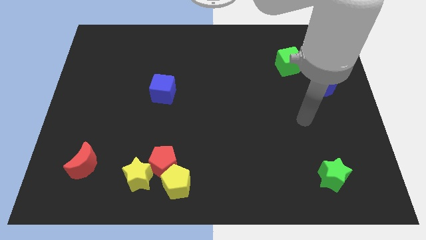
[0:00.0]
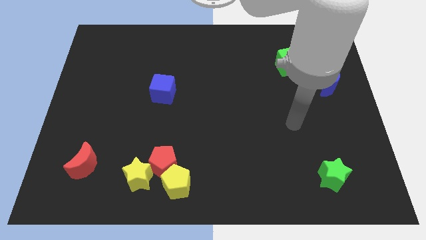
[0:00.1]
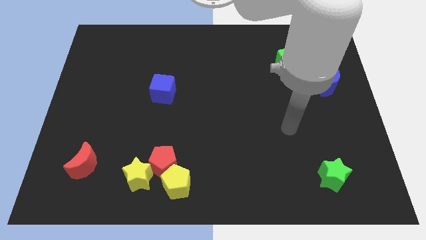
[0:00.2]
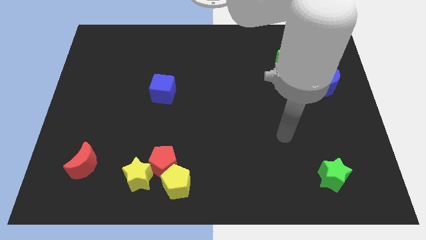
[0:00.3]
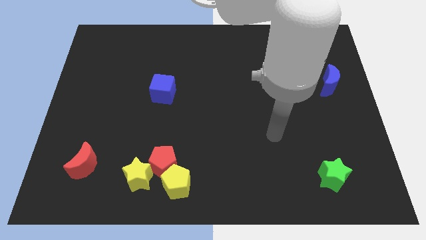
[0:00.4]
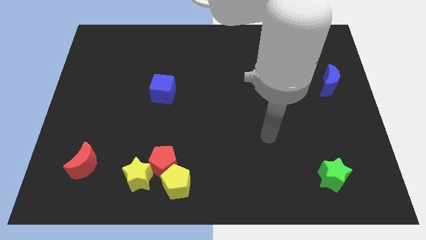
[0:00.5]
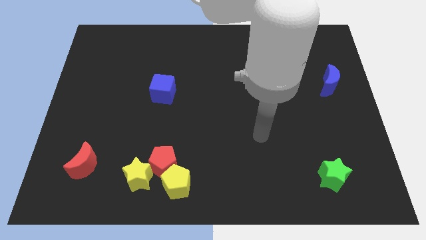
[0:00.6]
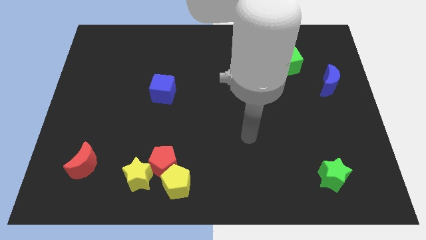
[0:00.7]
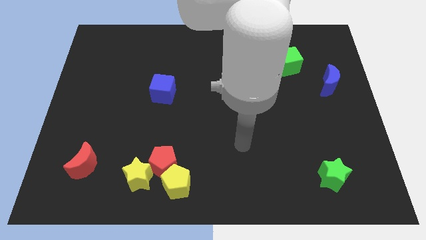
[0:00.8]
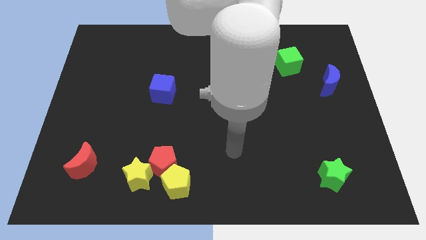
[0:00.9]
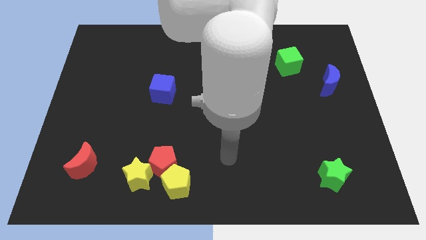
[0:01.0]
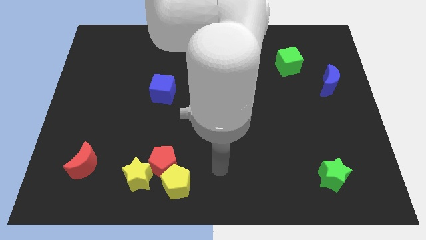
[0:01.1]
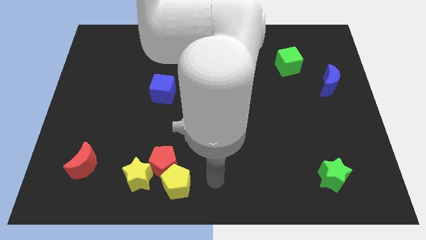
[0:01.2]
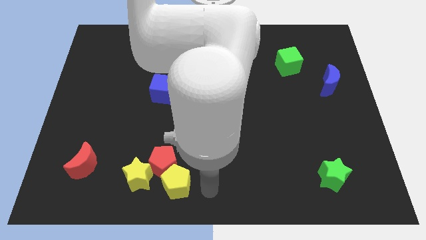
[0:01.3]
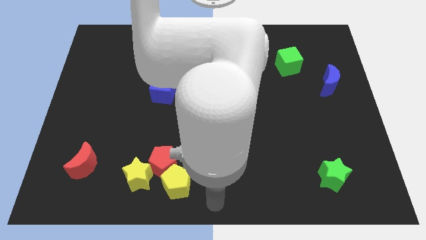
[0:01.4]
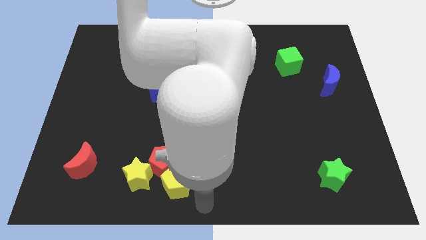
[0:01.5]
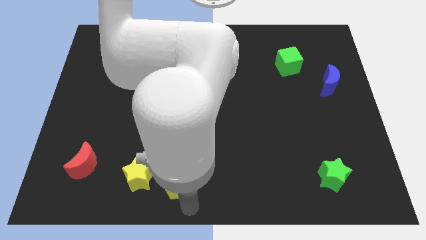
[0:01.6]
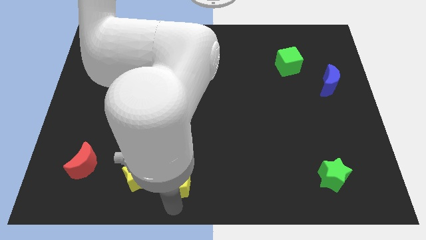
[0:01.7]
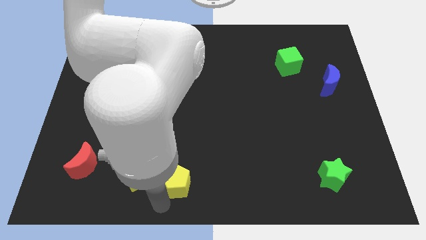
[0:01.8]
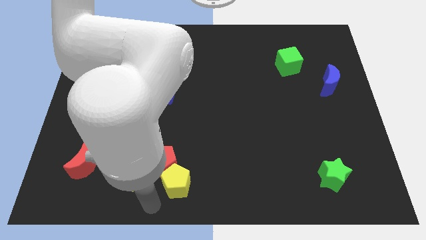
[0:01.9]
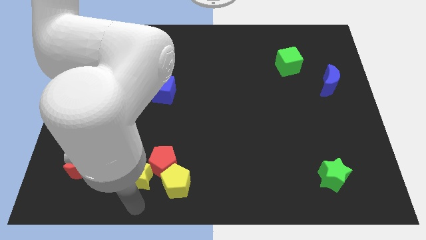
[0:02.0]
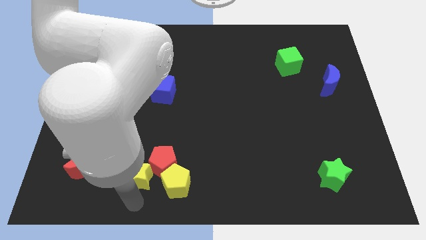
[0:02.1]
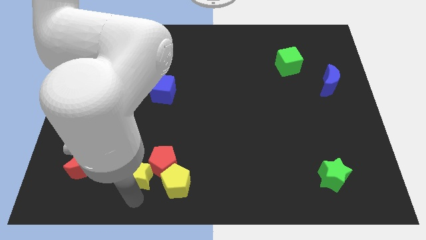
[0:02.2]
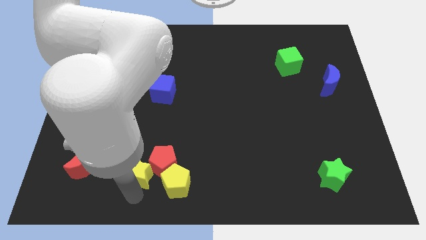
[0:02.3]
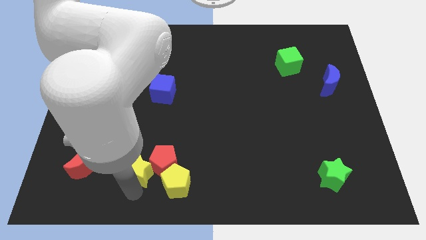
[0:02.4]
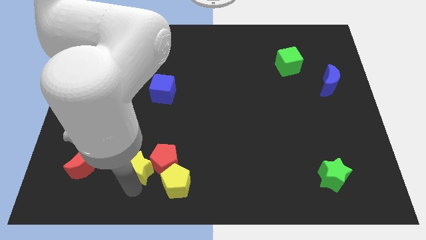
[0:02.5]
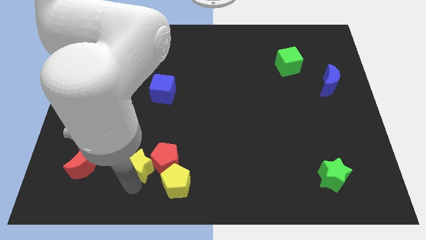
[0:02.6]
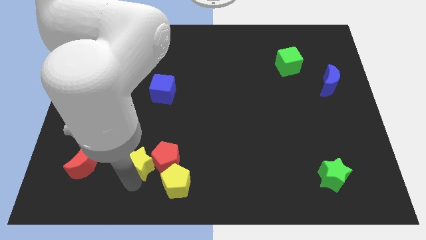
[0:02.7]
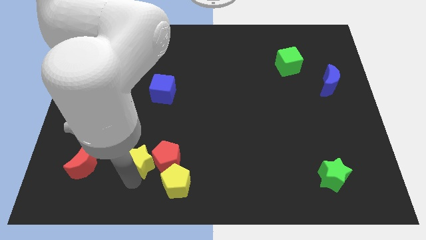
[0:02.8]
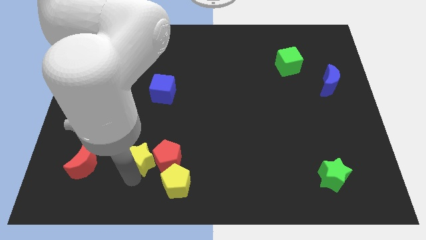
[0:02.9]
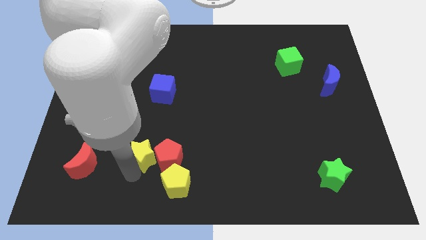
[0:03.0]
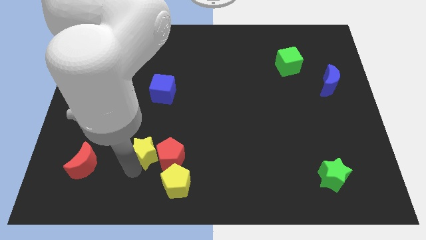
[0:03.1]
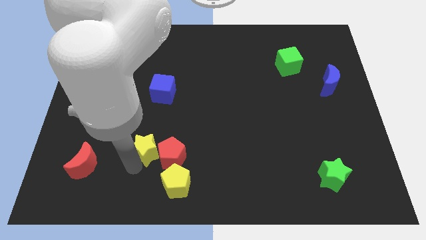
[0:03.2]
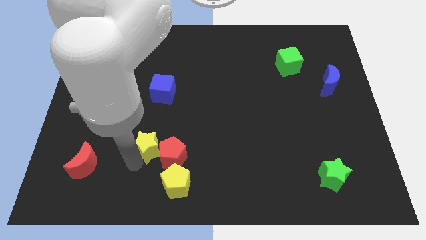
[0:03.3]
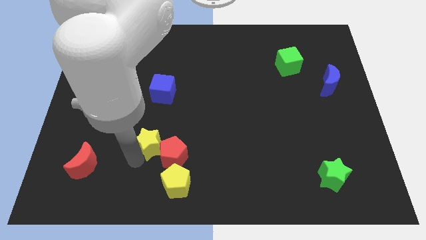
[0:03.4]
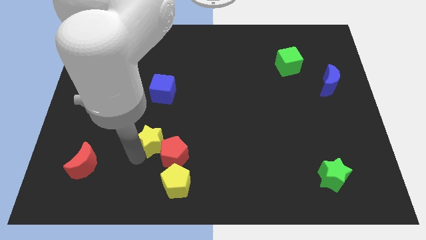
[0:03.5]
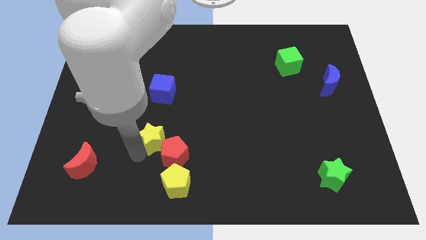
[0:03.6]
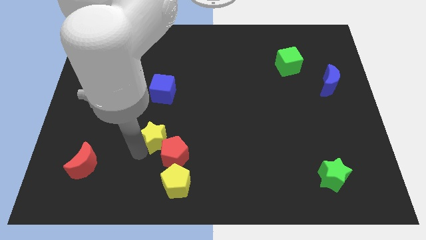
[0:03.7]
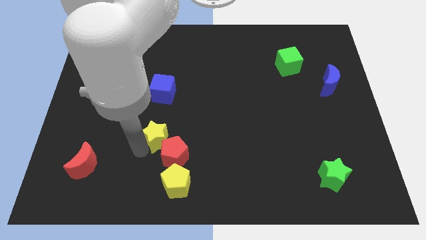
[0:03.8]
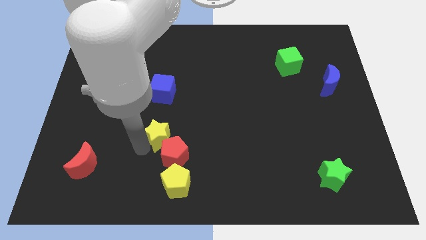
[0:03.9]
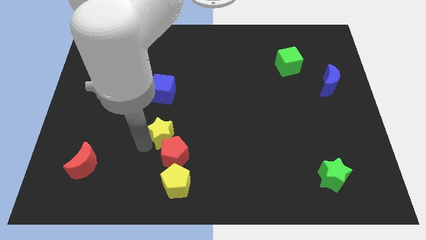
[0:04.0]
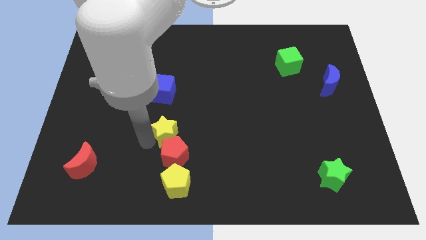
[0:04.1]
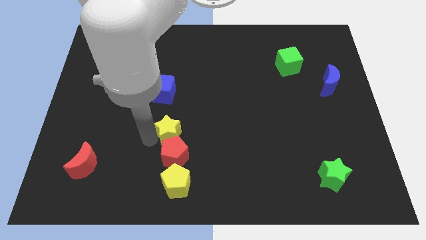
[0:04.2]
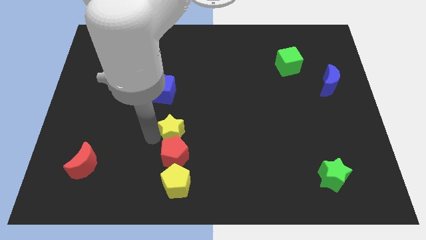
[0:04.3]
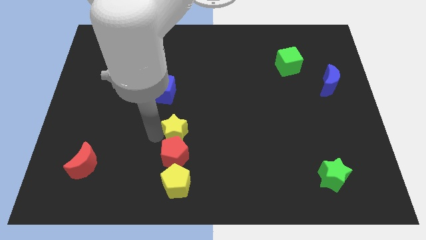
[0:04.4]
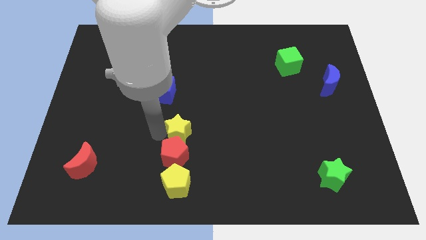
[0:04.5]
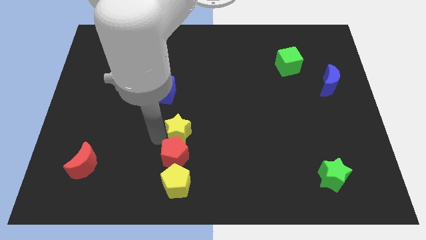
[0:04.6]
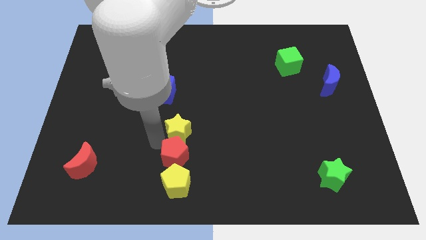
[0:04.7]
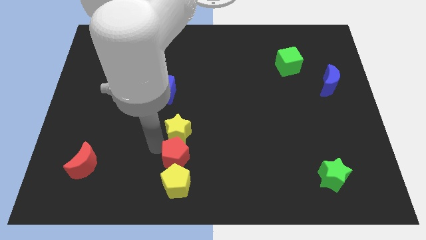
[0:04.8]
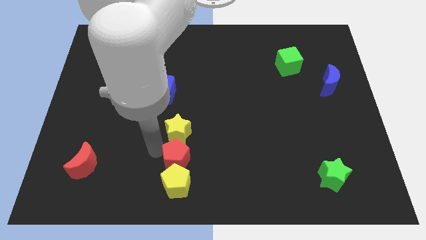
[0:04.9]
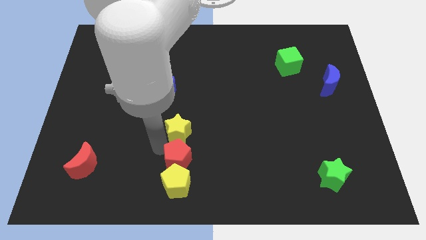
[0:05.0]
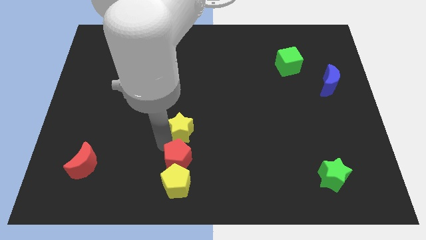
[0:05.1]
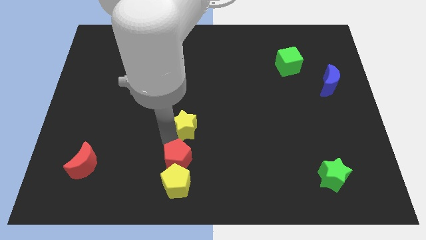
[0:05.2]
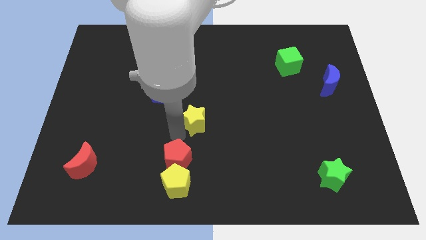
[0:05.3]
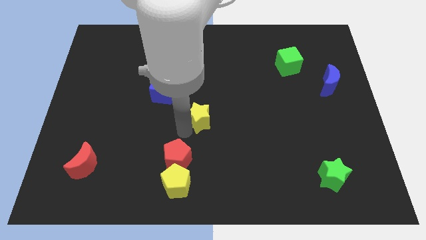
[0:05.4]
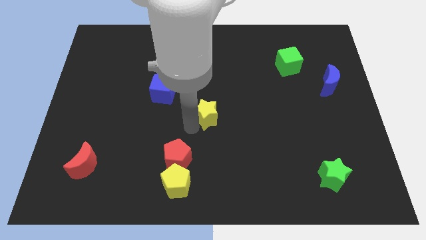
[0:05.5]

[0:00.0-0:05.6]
move the yellow star up and right

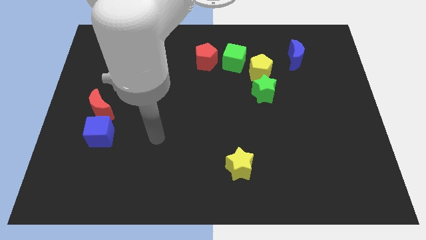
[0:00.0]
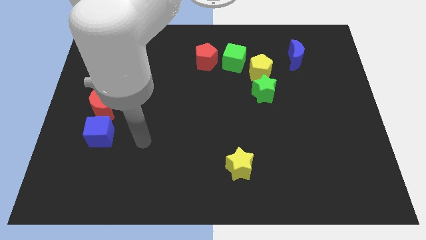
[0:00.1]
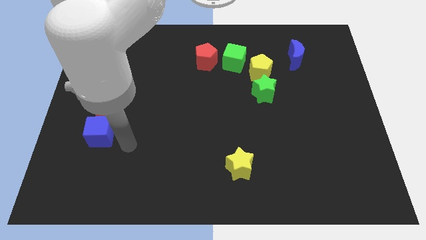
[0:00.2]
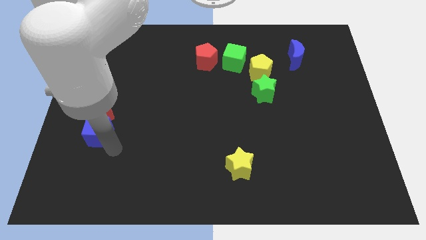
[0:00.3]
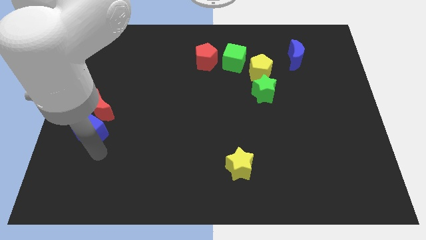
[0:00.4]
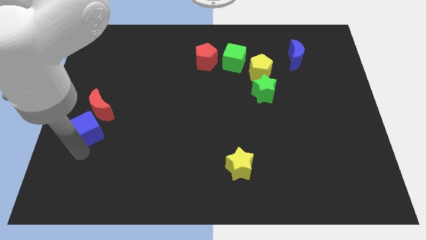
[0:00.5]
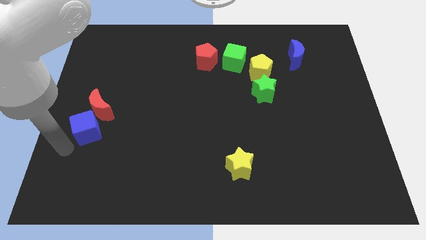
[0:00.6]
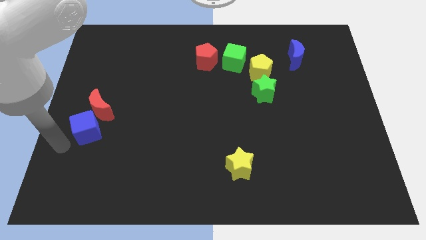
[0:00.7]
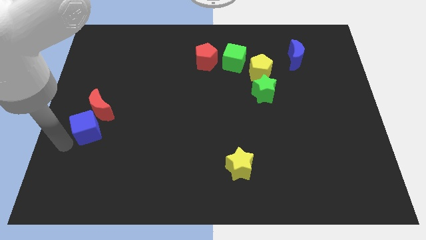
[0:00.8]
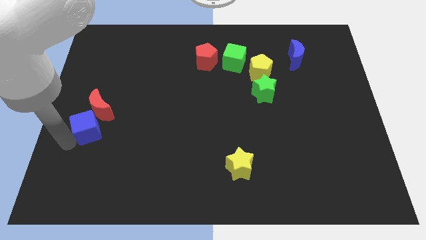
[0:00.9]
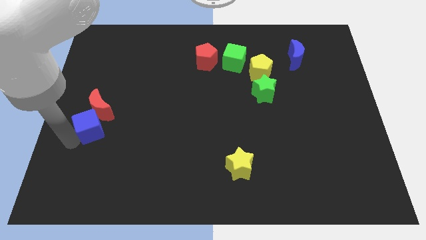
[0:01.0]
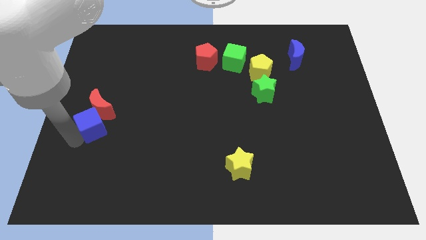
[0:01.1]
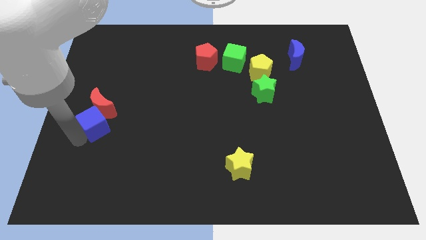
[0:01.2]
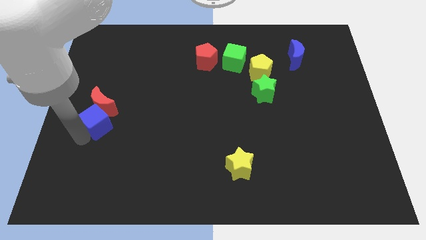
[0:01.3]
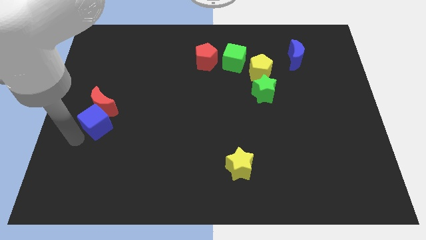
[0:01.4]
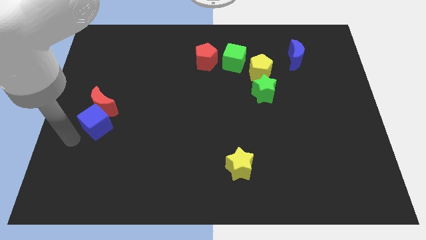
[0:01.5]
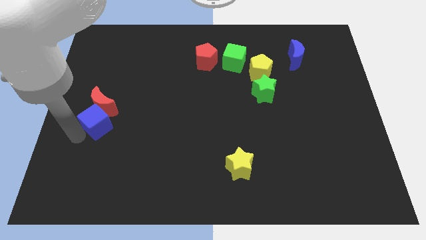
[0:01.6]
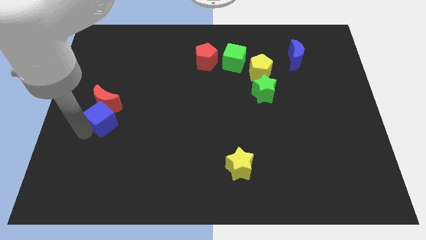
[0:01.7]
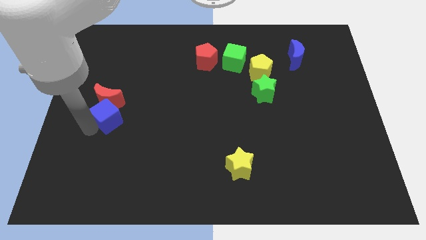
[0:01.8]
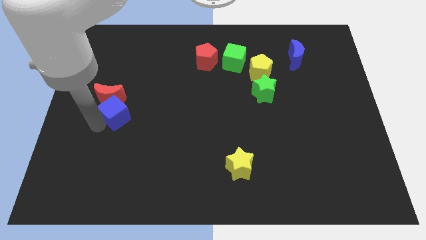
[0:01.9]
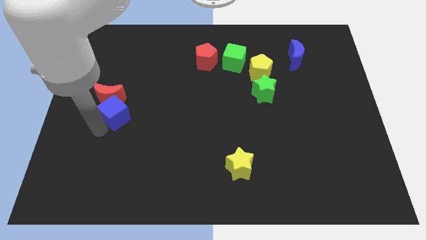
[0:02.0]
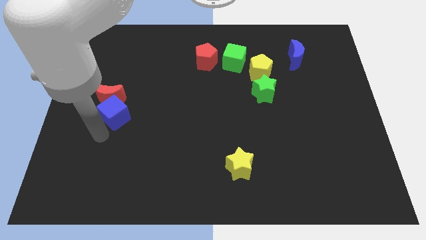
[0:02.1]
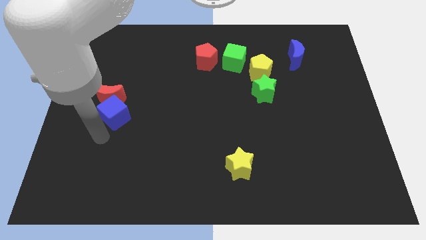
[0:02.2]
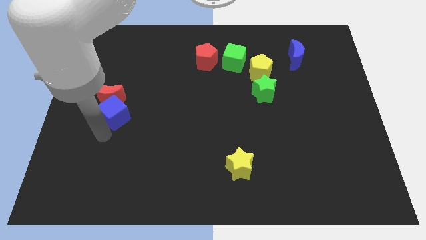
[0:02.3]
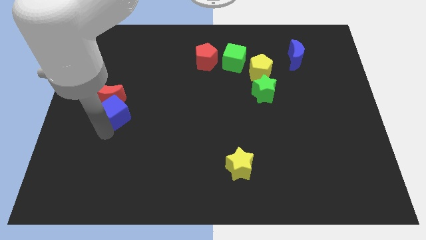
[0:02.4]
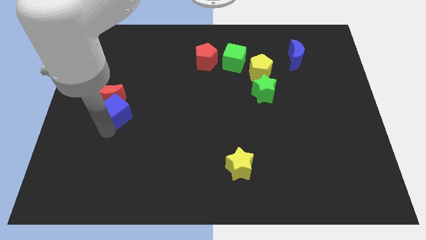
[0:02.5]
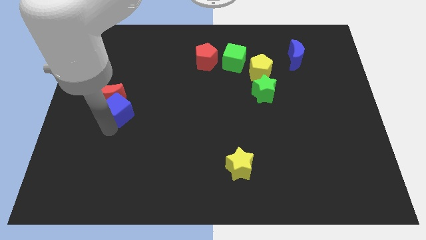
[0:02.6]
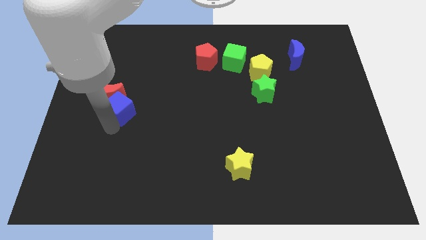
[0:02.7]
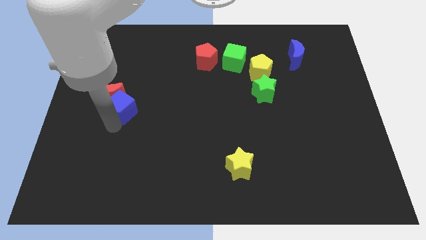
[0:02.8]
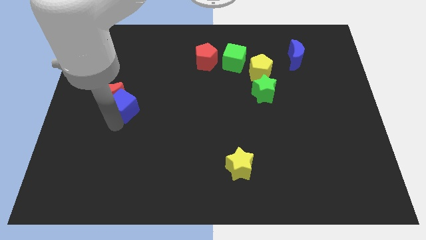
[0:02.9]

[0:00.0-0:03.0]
slightly move the blue cube up
